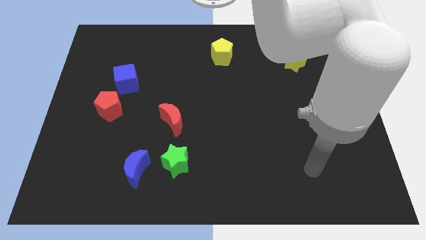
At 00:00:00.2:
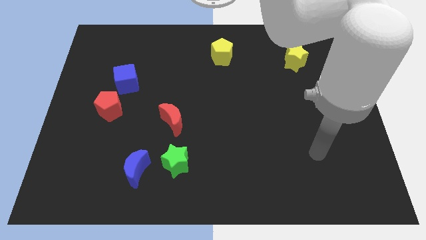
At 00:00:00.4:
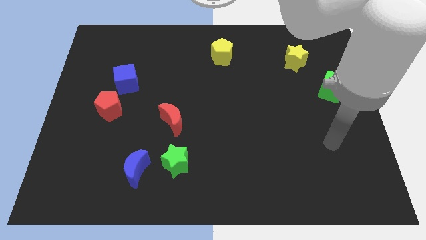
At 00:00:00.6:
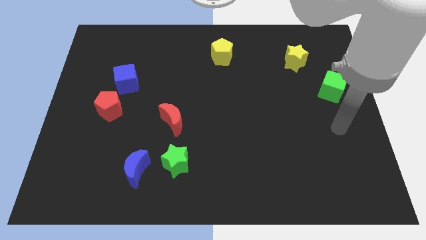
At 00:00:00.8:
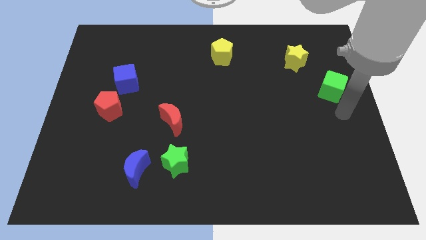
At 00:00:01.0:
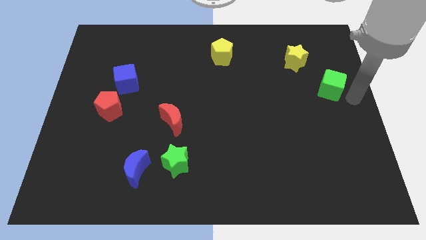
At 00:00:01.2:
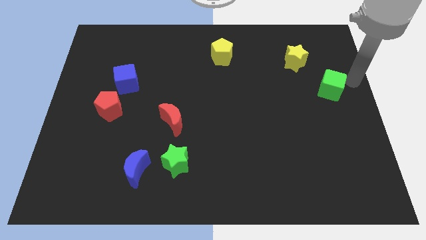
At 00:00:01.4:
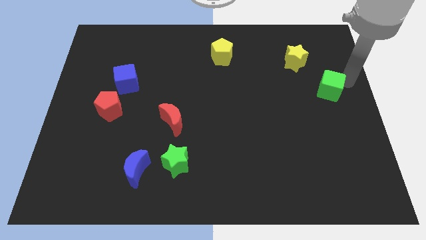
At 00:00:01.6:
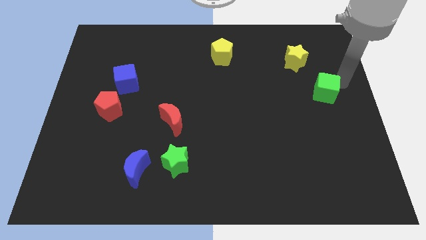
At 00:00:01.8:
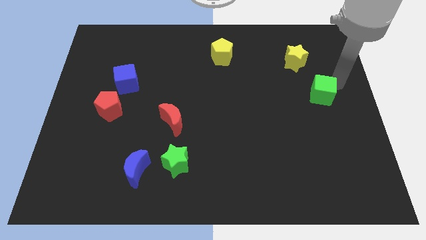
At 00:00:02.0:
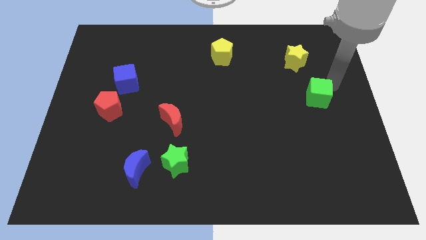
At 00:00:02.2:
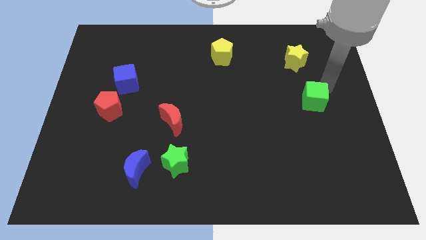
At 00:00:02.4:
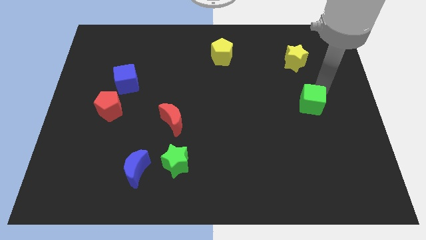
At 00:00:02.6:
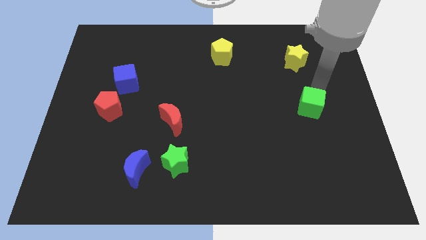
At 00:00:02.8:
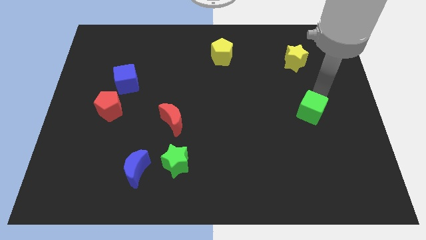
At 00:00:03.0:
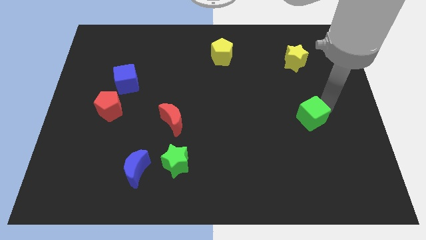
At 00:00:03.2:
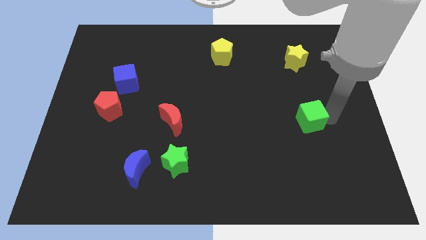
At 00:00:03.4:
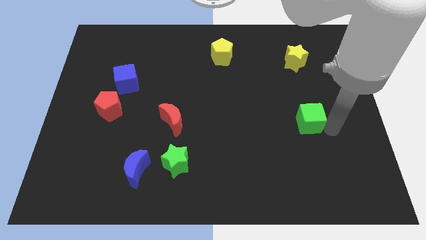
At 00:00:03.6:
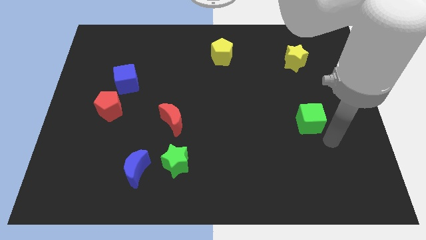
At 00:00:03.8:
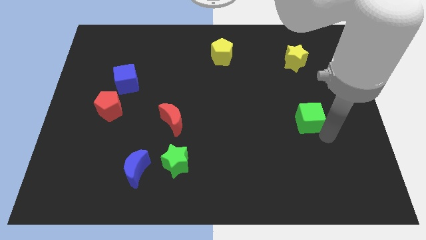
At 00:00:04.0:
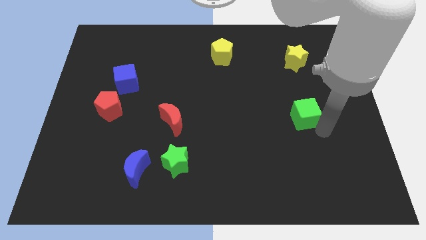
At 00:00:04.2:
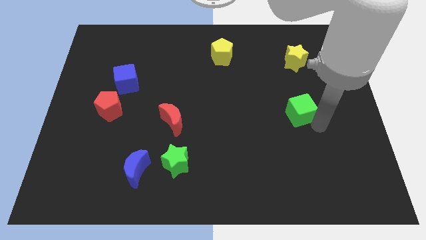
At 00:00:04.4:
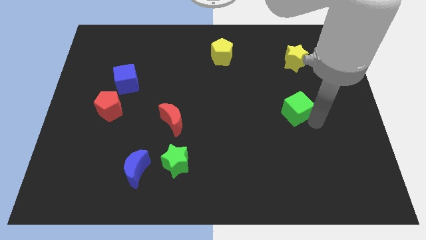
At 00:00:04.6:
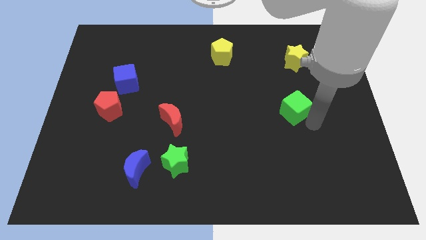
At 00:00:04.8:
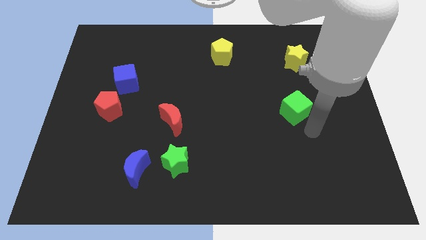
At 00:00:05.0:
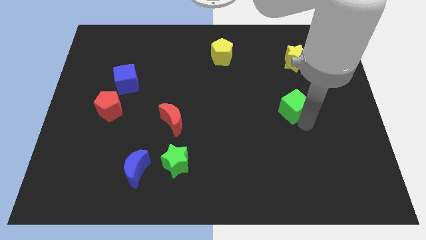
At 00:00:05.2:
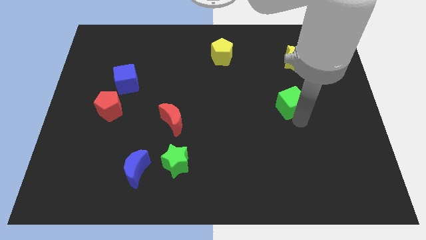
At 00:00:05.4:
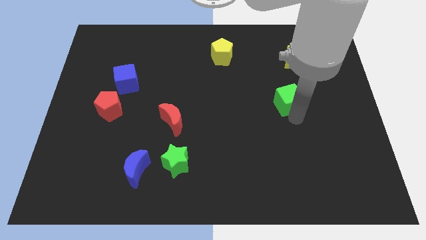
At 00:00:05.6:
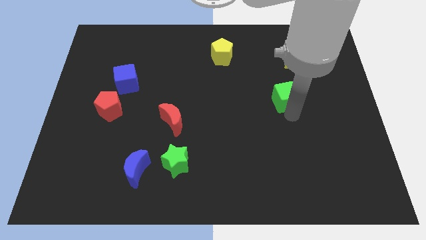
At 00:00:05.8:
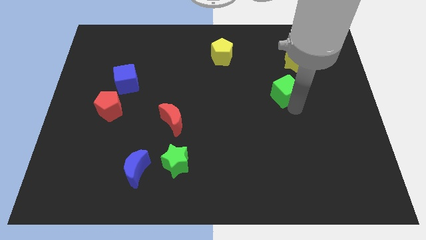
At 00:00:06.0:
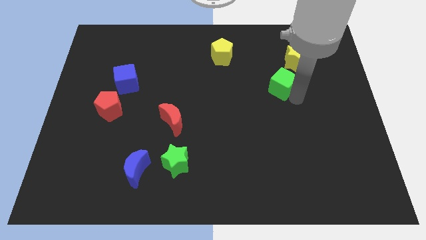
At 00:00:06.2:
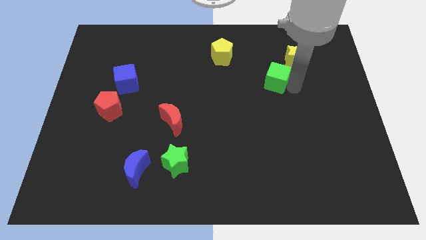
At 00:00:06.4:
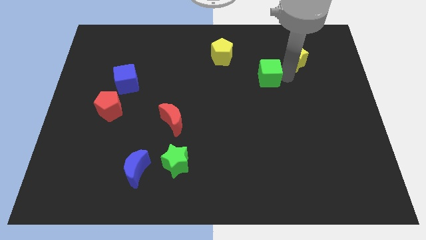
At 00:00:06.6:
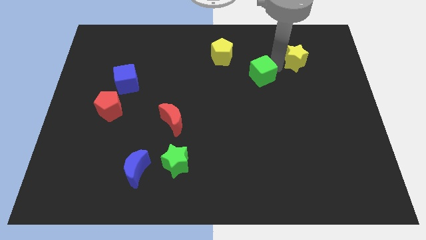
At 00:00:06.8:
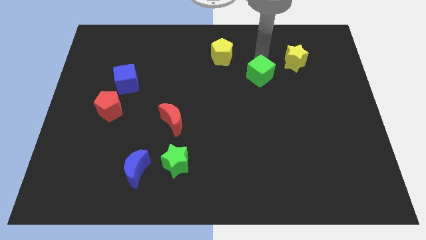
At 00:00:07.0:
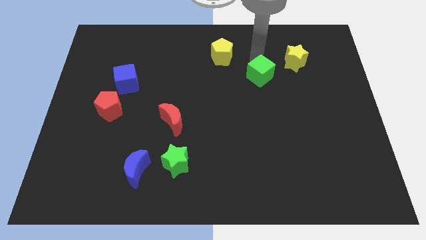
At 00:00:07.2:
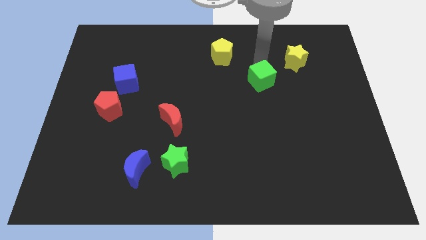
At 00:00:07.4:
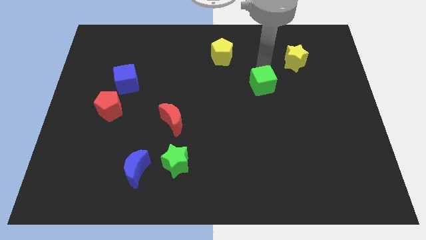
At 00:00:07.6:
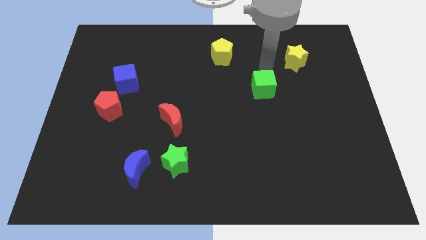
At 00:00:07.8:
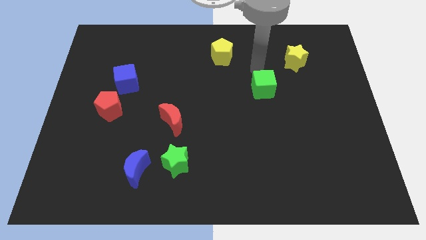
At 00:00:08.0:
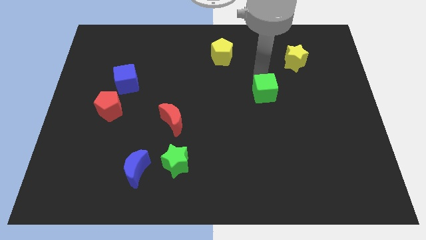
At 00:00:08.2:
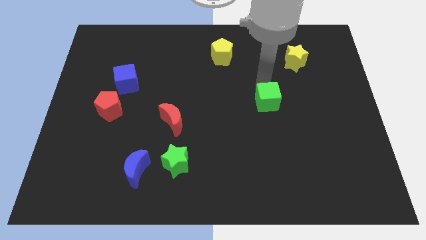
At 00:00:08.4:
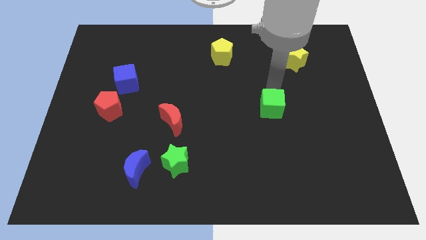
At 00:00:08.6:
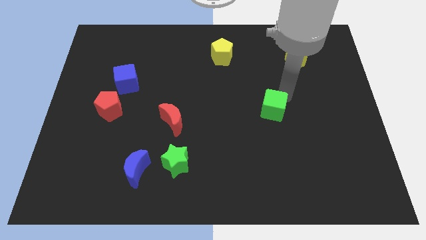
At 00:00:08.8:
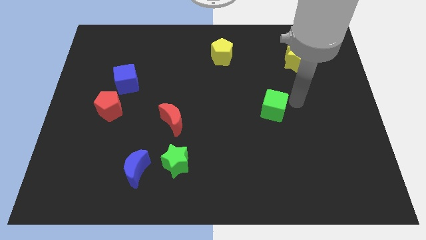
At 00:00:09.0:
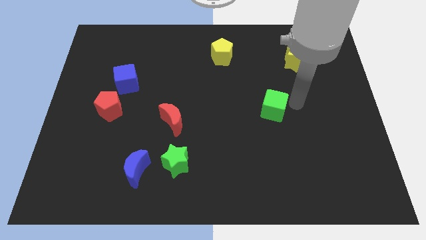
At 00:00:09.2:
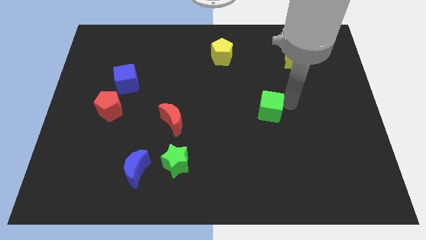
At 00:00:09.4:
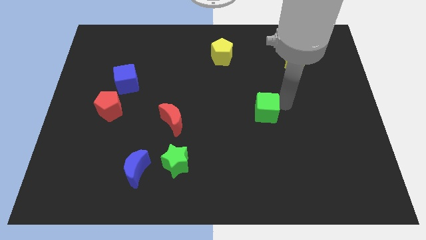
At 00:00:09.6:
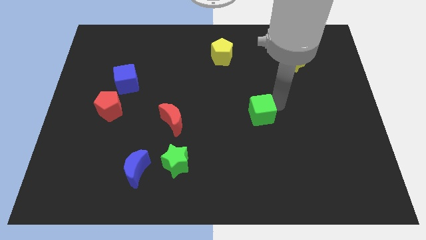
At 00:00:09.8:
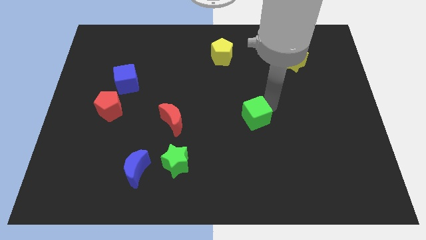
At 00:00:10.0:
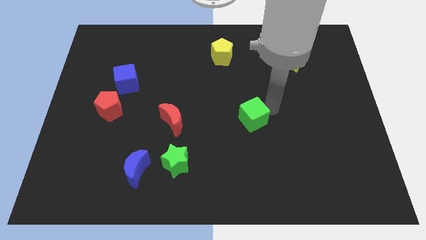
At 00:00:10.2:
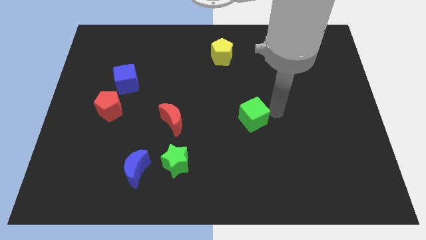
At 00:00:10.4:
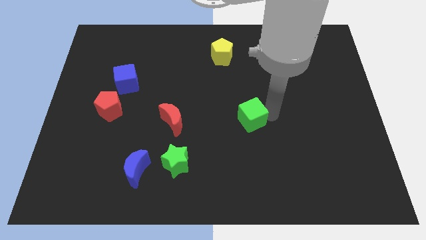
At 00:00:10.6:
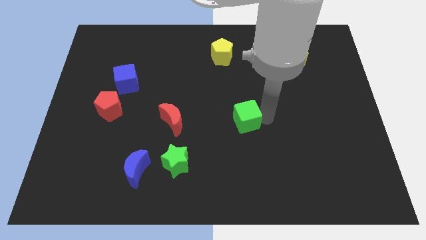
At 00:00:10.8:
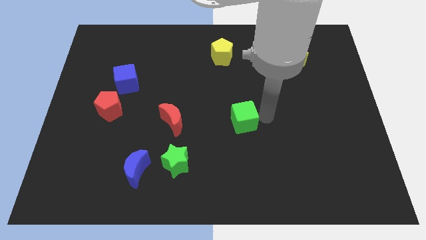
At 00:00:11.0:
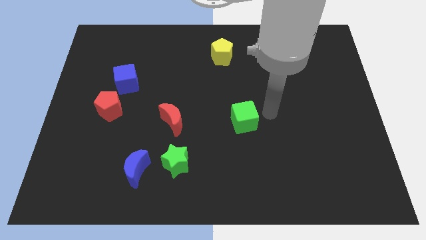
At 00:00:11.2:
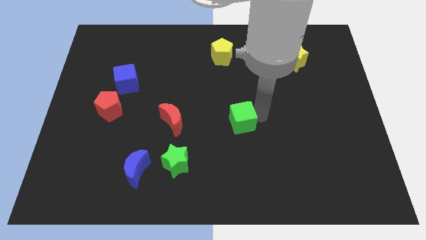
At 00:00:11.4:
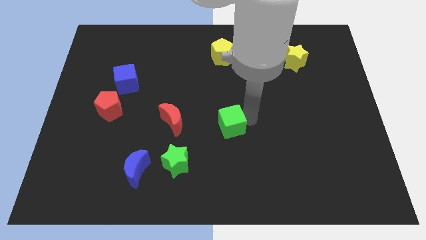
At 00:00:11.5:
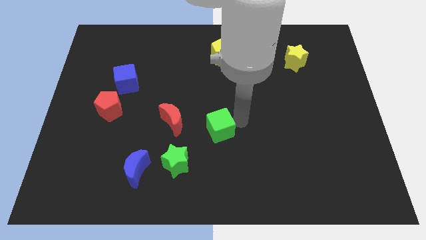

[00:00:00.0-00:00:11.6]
push the green cube to the top right side of the green star

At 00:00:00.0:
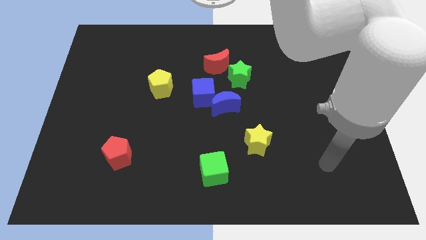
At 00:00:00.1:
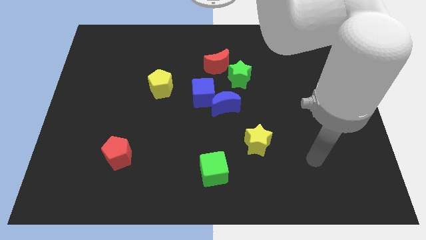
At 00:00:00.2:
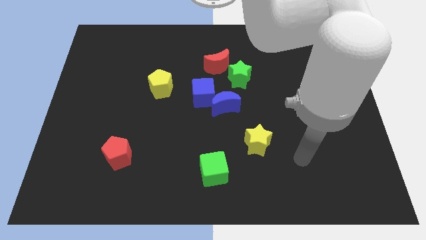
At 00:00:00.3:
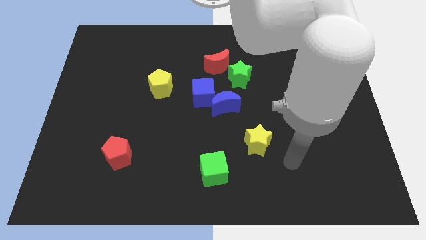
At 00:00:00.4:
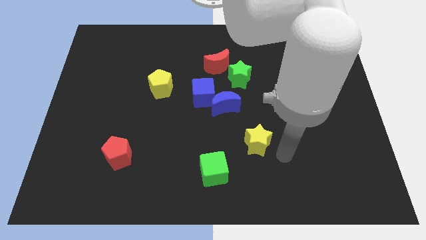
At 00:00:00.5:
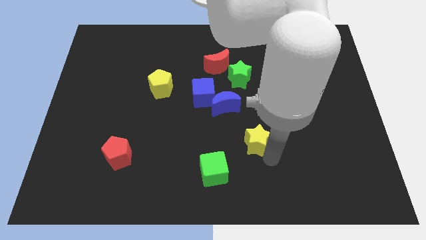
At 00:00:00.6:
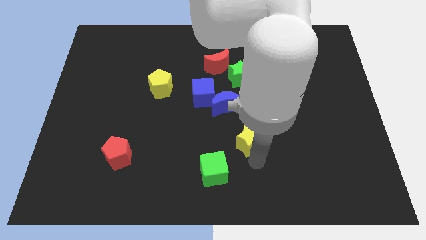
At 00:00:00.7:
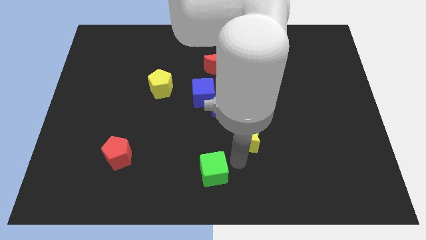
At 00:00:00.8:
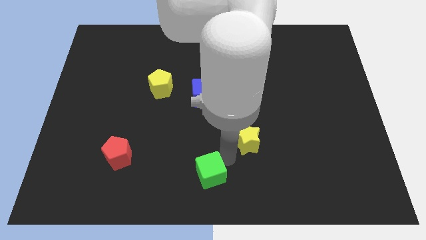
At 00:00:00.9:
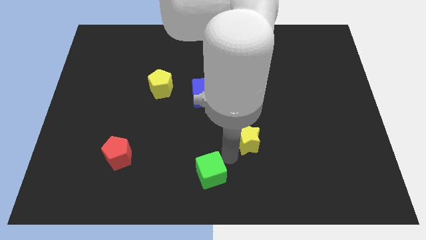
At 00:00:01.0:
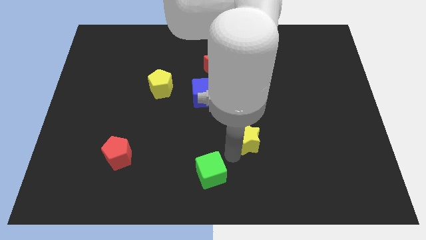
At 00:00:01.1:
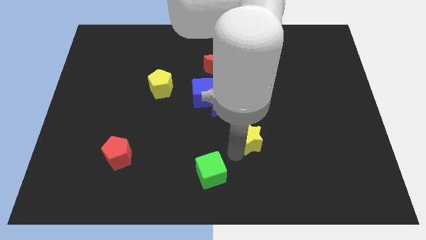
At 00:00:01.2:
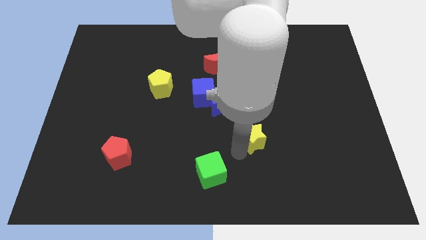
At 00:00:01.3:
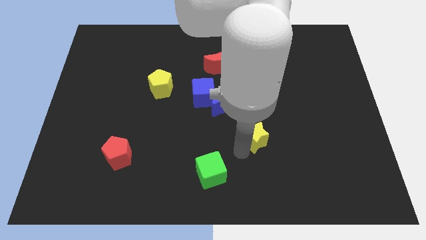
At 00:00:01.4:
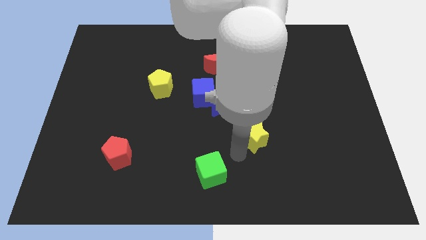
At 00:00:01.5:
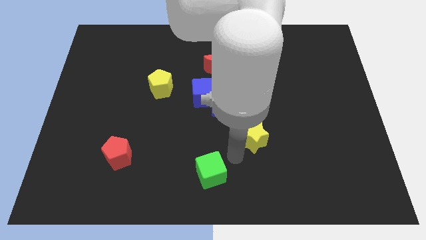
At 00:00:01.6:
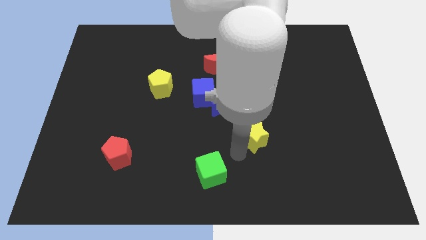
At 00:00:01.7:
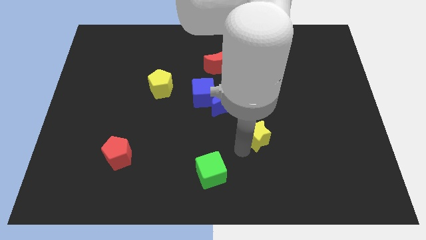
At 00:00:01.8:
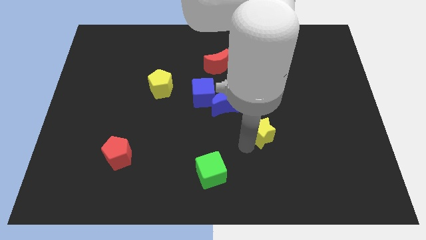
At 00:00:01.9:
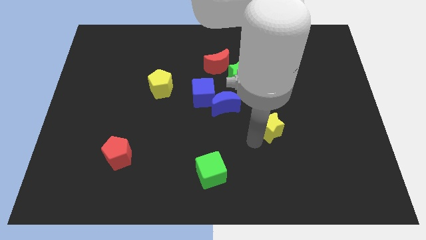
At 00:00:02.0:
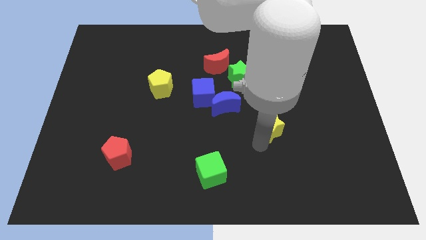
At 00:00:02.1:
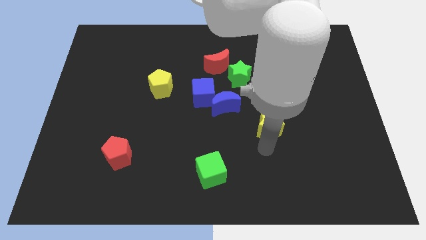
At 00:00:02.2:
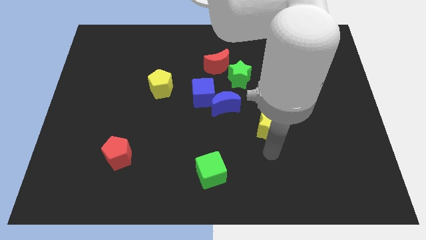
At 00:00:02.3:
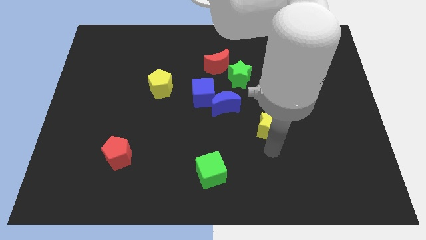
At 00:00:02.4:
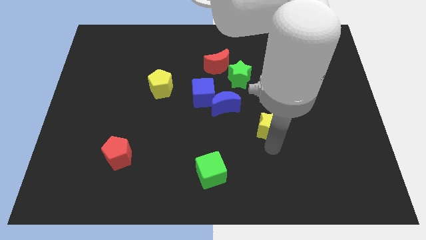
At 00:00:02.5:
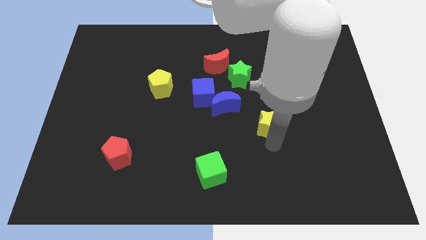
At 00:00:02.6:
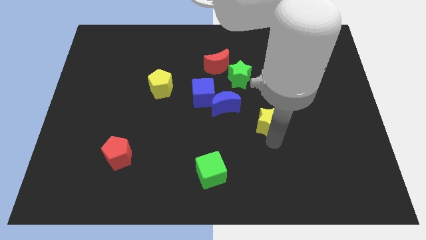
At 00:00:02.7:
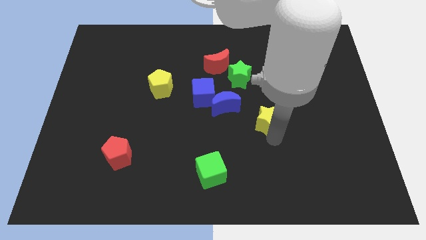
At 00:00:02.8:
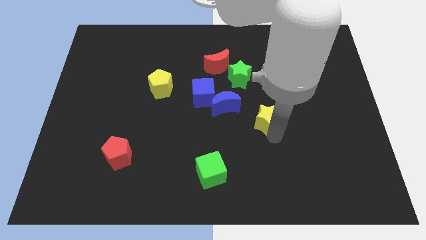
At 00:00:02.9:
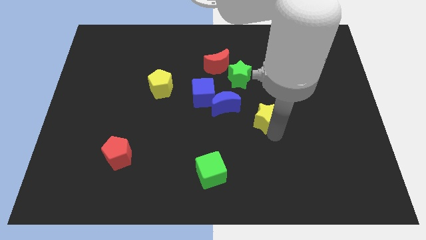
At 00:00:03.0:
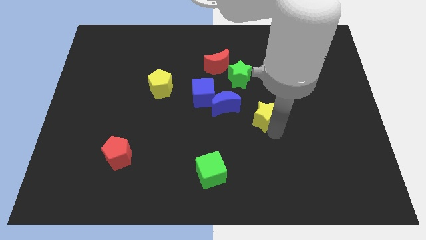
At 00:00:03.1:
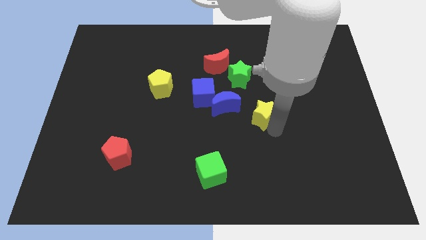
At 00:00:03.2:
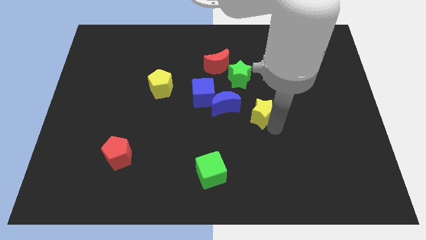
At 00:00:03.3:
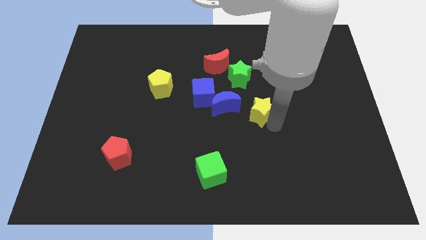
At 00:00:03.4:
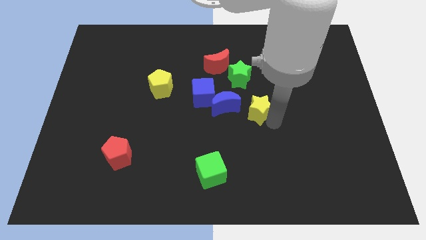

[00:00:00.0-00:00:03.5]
put the yellow star diagonally down and to the right of the green star
